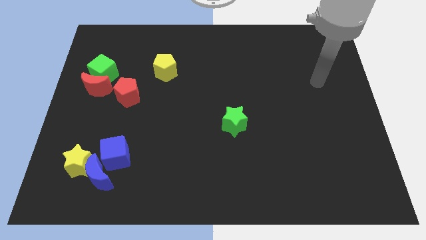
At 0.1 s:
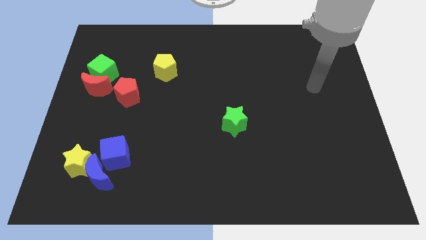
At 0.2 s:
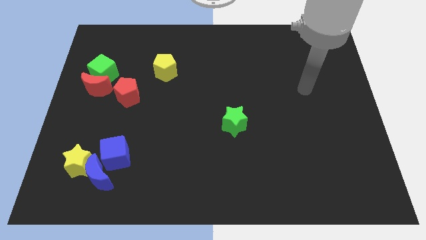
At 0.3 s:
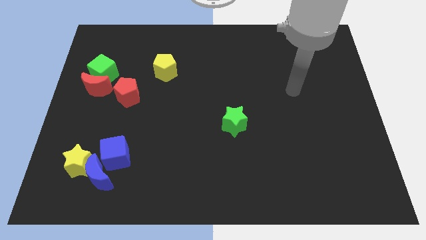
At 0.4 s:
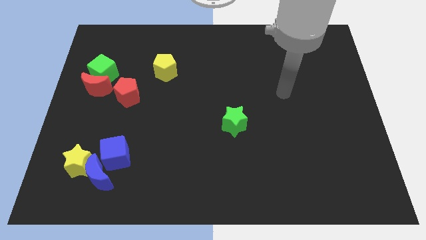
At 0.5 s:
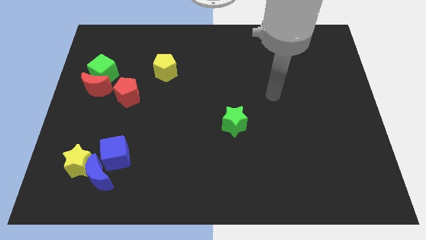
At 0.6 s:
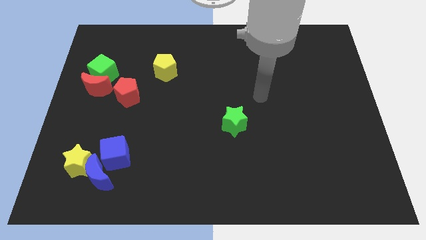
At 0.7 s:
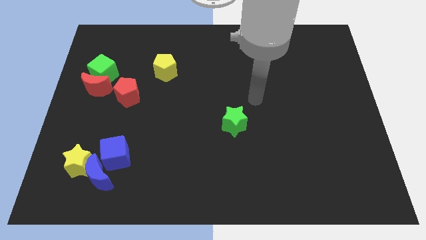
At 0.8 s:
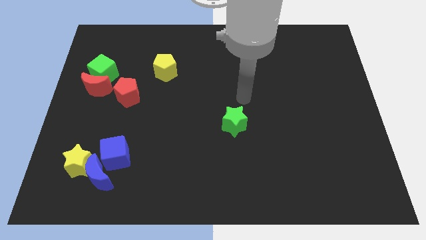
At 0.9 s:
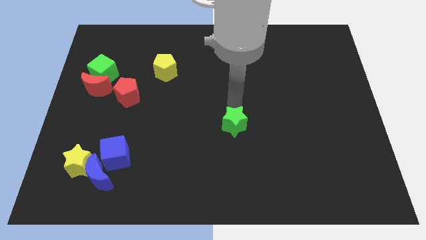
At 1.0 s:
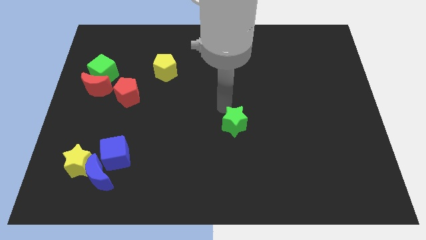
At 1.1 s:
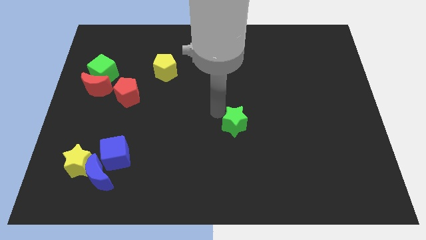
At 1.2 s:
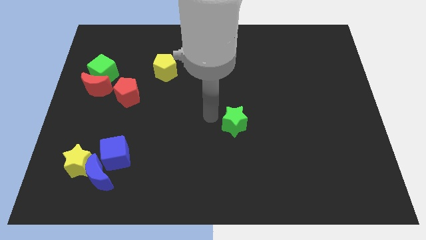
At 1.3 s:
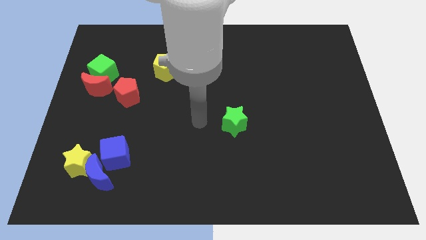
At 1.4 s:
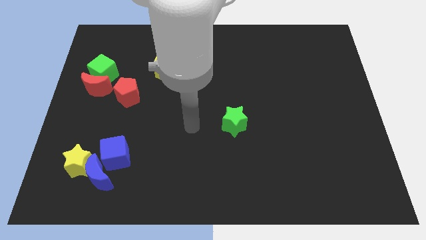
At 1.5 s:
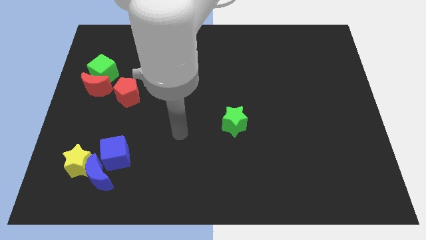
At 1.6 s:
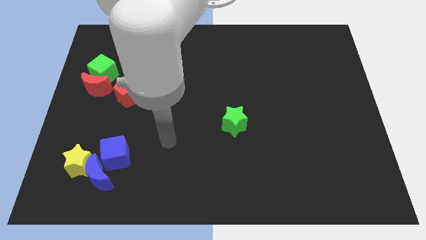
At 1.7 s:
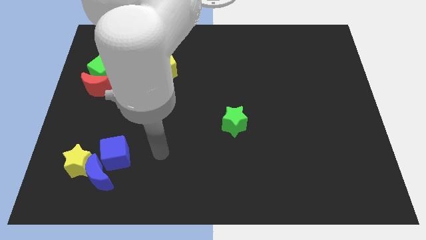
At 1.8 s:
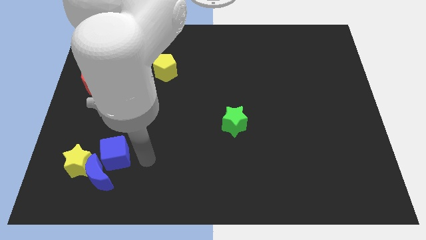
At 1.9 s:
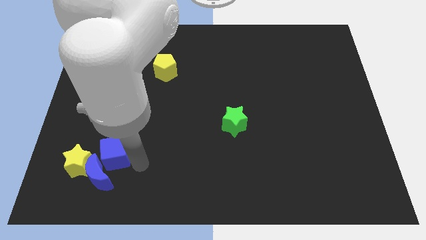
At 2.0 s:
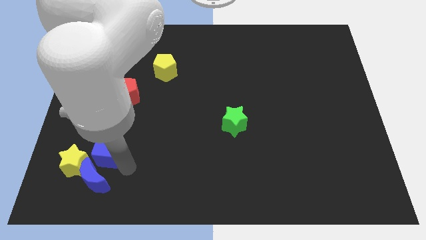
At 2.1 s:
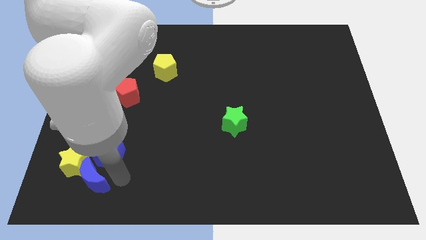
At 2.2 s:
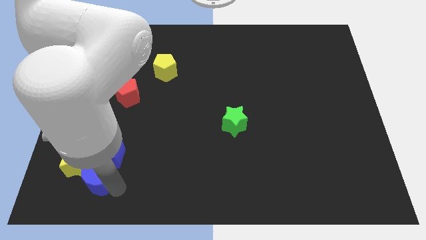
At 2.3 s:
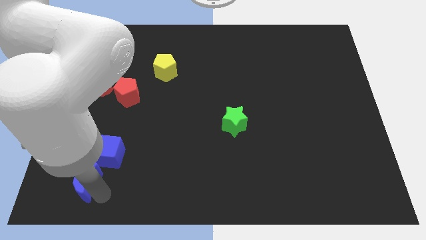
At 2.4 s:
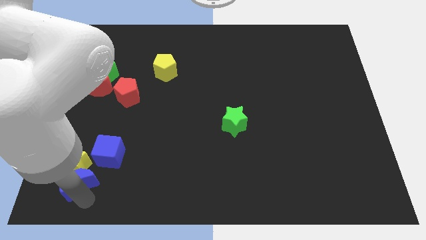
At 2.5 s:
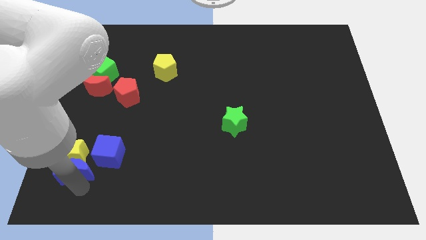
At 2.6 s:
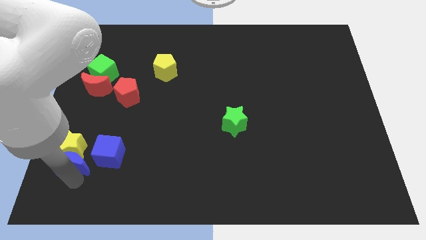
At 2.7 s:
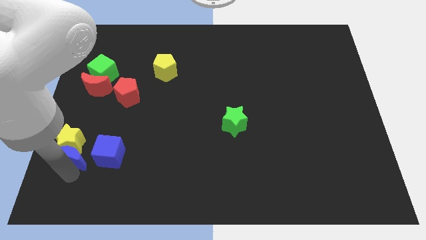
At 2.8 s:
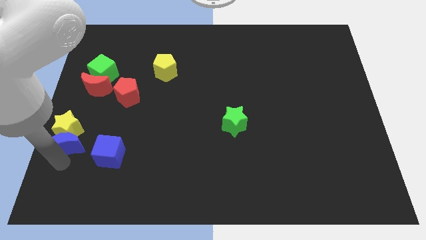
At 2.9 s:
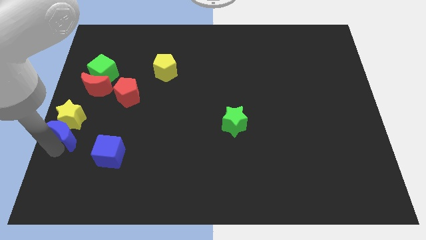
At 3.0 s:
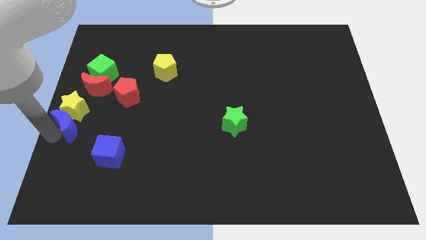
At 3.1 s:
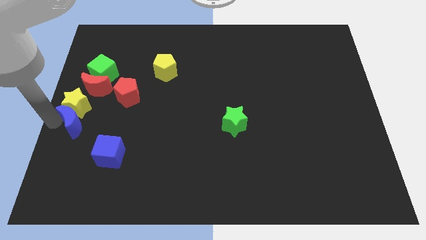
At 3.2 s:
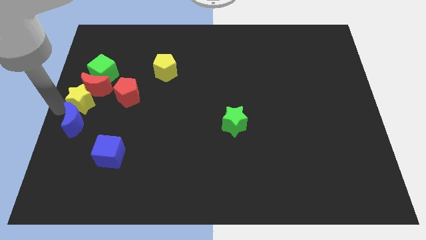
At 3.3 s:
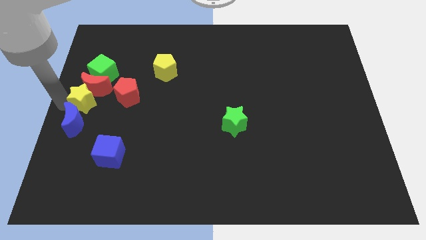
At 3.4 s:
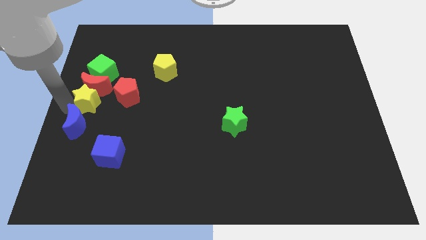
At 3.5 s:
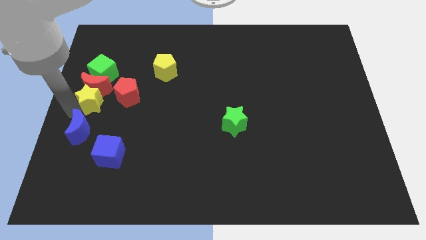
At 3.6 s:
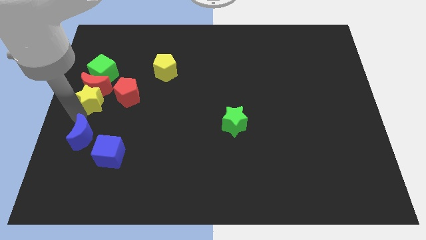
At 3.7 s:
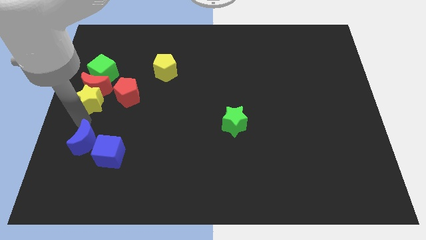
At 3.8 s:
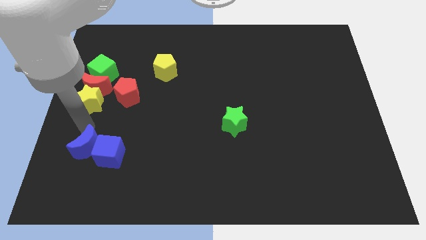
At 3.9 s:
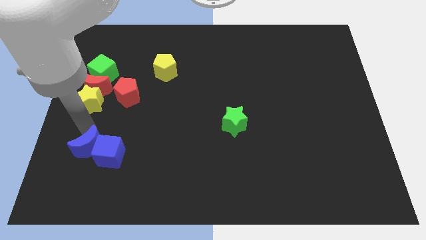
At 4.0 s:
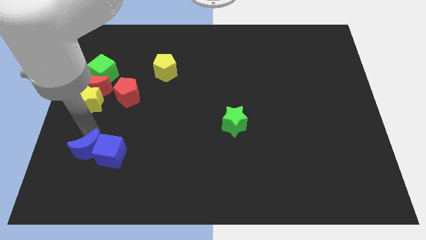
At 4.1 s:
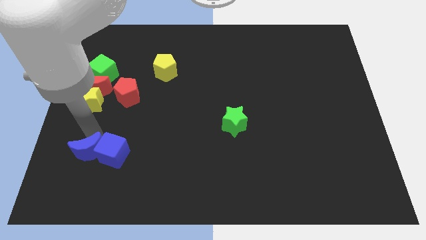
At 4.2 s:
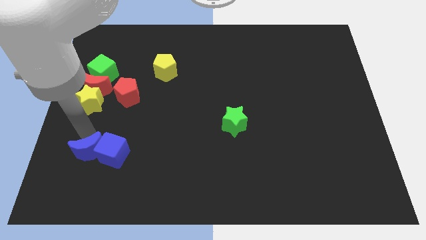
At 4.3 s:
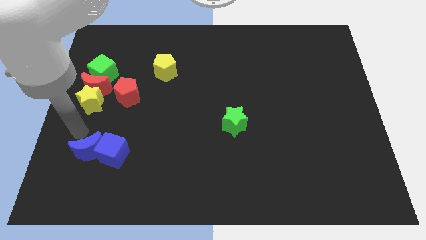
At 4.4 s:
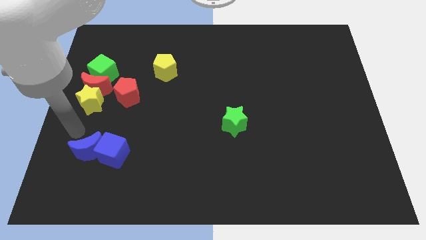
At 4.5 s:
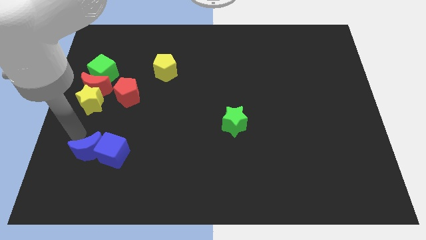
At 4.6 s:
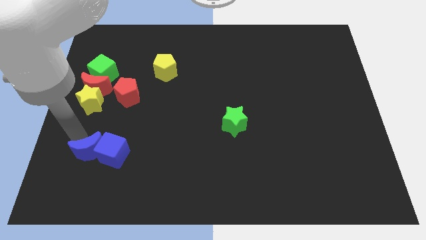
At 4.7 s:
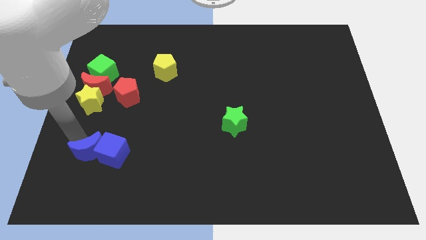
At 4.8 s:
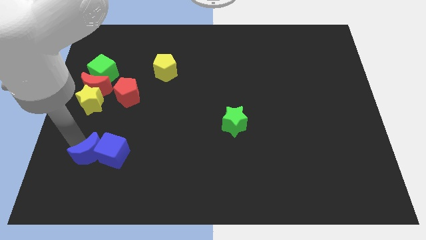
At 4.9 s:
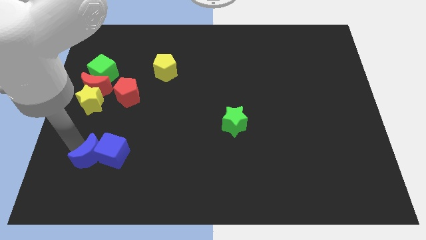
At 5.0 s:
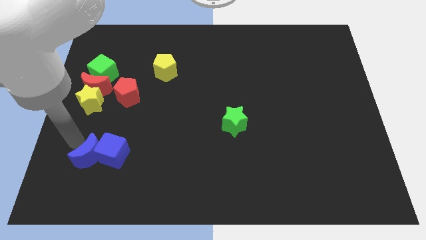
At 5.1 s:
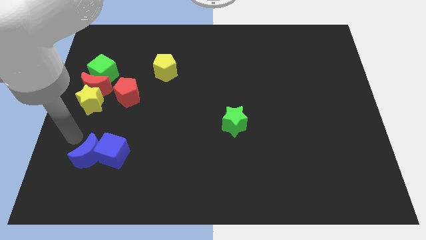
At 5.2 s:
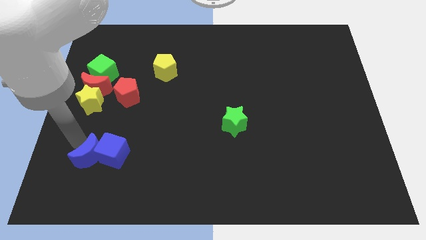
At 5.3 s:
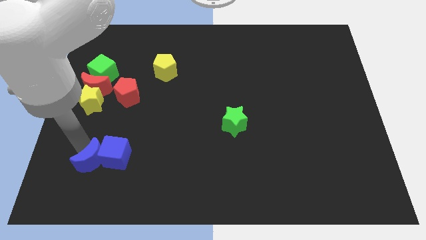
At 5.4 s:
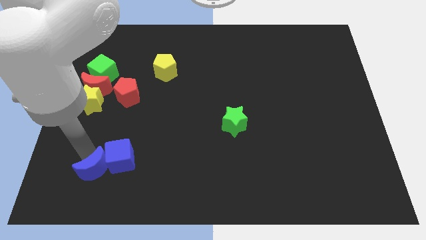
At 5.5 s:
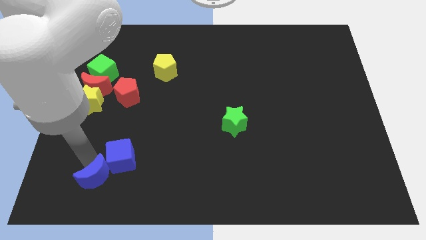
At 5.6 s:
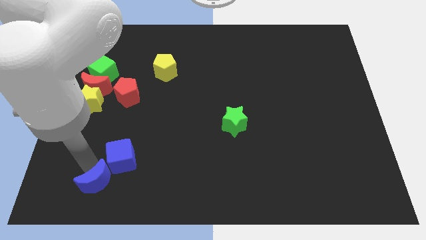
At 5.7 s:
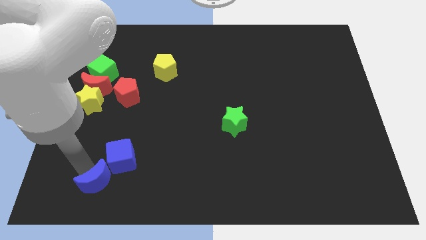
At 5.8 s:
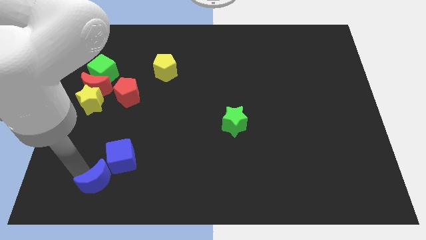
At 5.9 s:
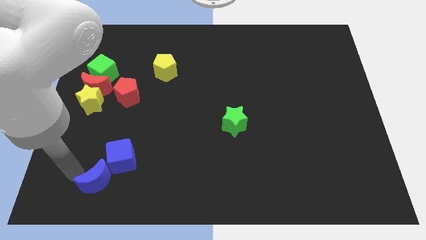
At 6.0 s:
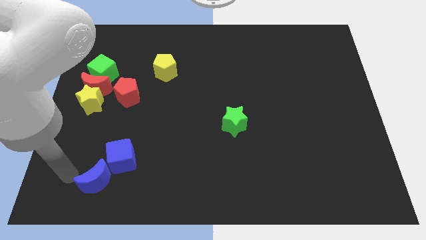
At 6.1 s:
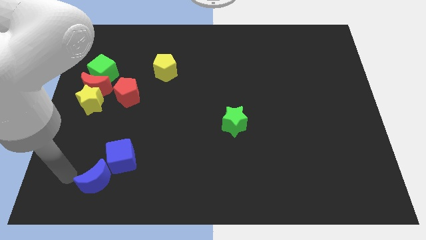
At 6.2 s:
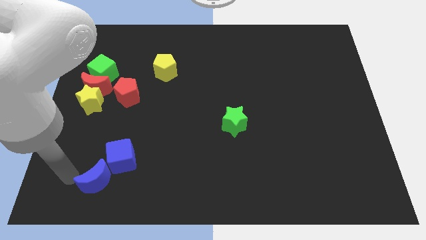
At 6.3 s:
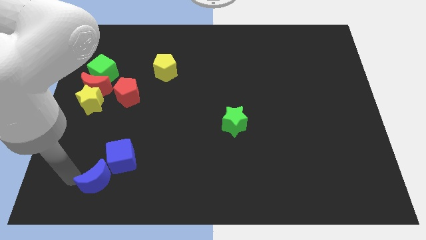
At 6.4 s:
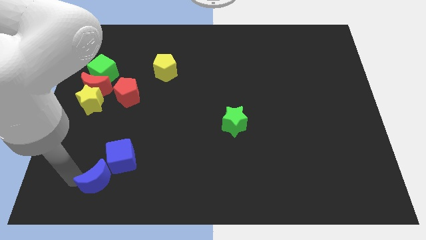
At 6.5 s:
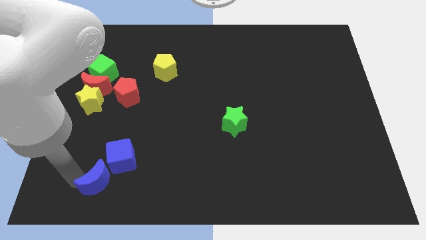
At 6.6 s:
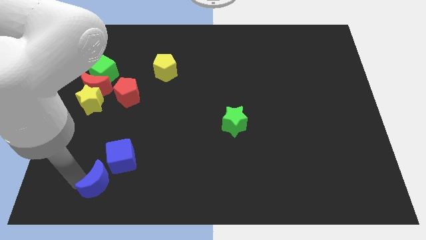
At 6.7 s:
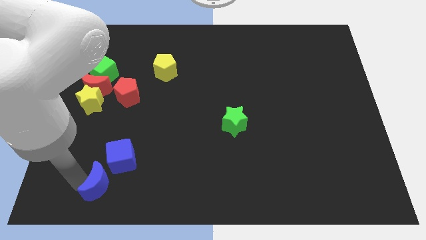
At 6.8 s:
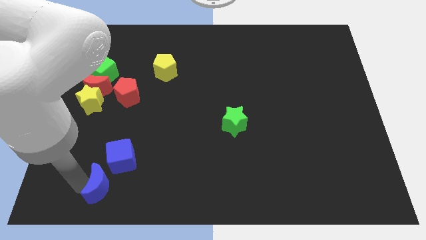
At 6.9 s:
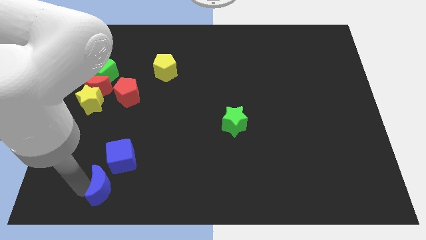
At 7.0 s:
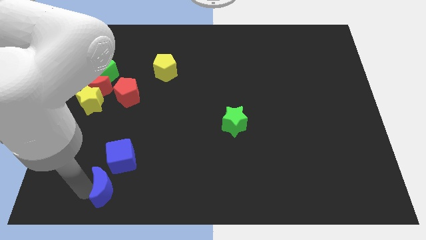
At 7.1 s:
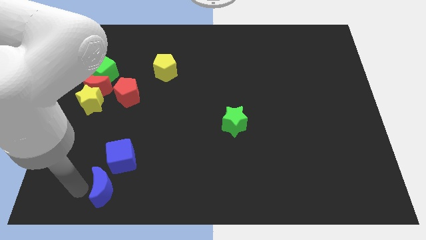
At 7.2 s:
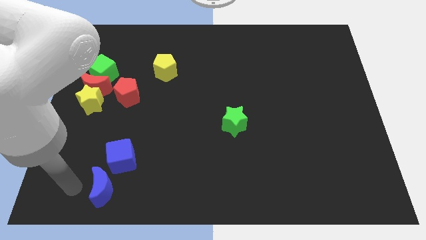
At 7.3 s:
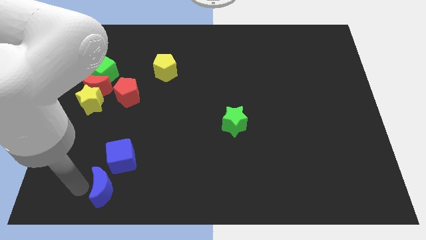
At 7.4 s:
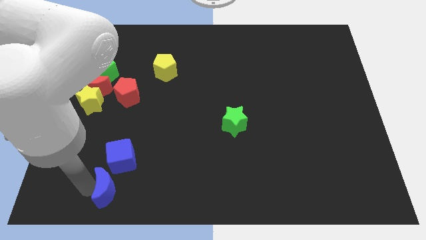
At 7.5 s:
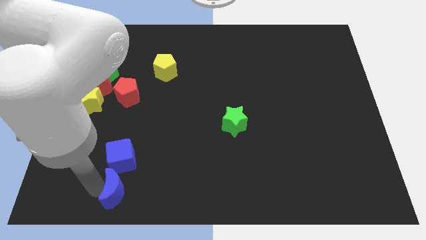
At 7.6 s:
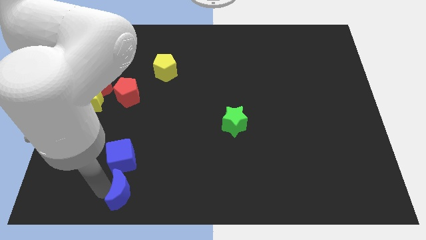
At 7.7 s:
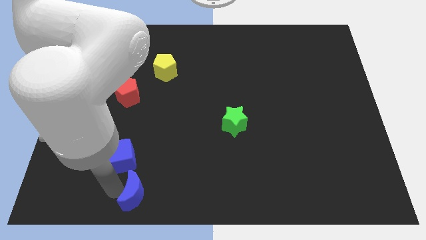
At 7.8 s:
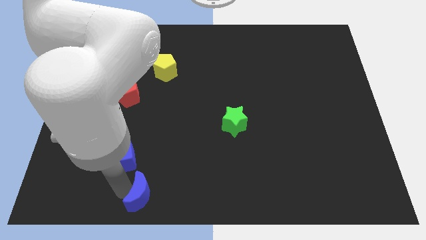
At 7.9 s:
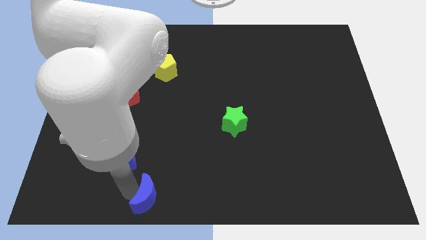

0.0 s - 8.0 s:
put the blue moon to the bottom side
